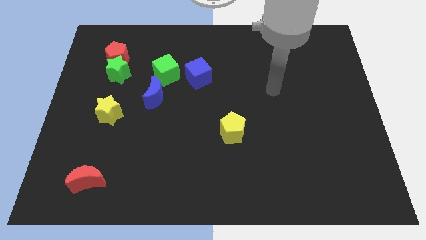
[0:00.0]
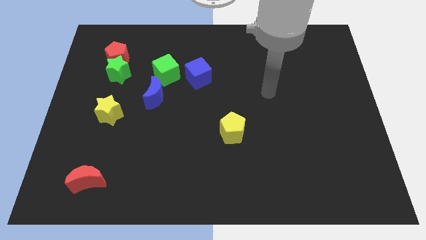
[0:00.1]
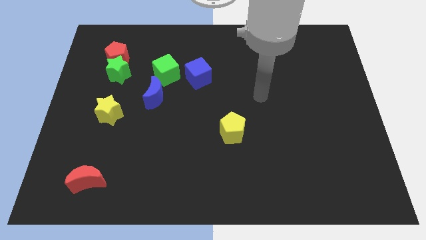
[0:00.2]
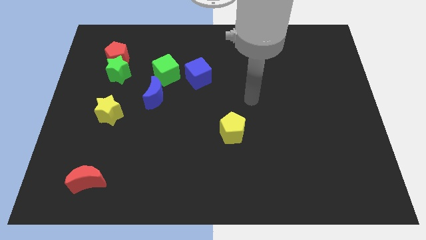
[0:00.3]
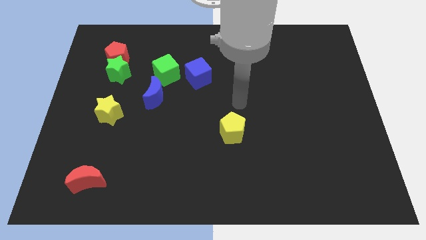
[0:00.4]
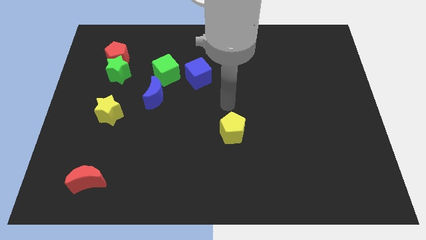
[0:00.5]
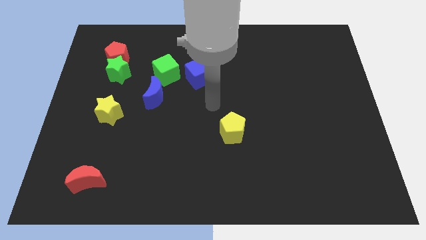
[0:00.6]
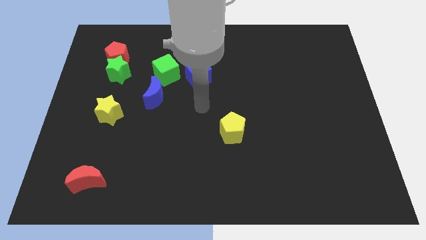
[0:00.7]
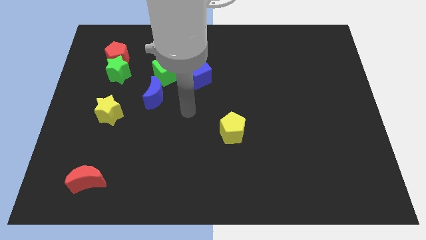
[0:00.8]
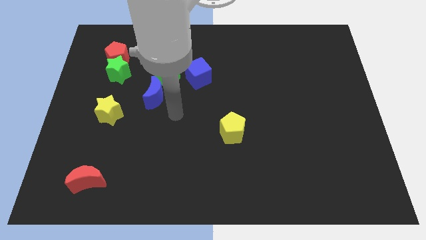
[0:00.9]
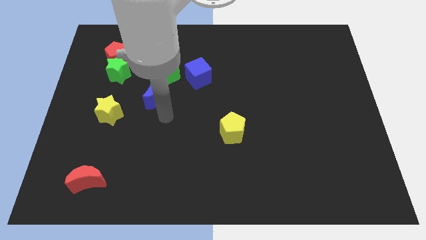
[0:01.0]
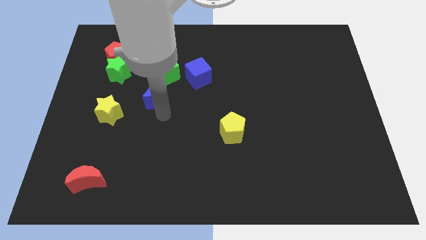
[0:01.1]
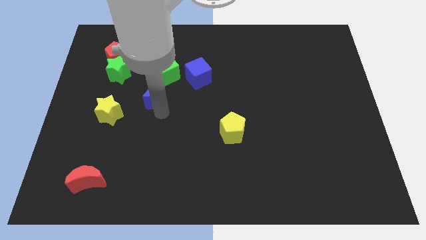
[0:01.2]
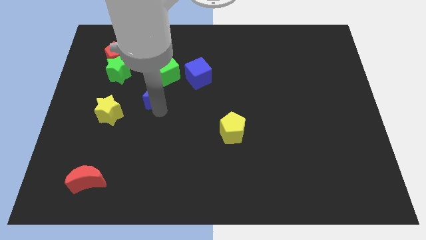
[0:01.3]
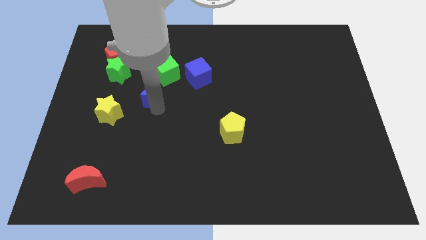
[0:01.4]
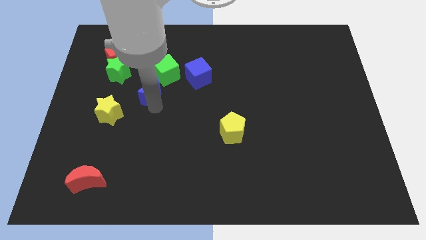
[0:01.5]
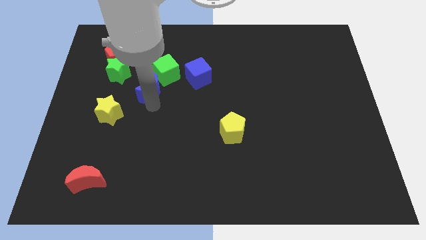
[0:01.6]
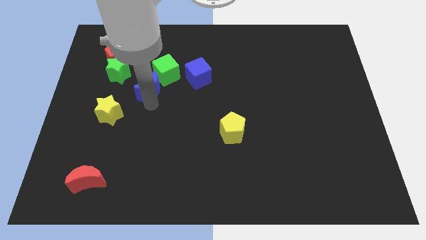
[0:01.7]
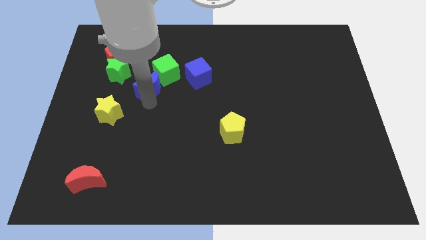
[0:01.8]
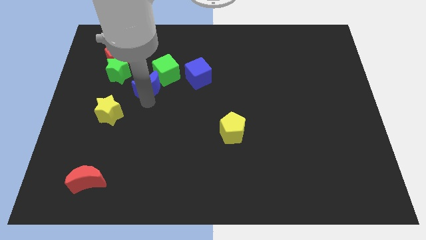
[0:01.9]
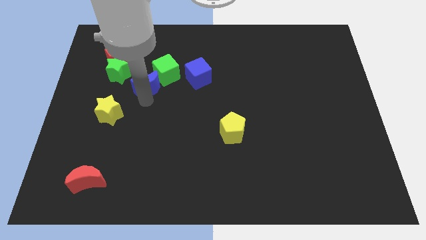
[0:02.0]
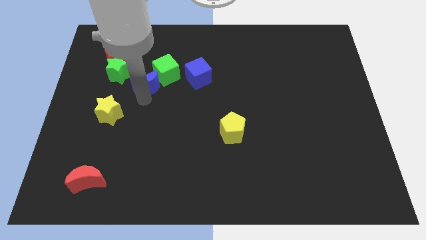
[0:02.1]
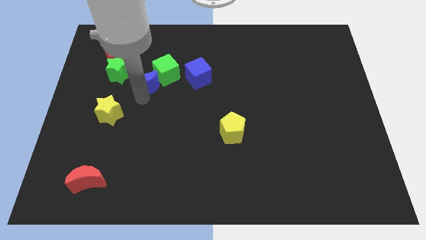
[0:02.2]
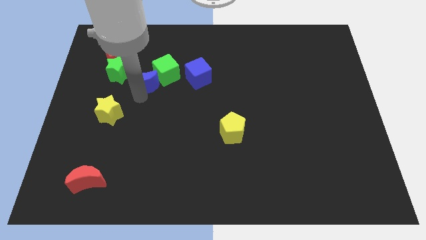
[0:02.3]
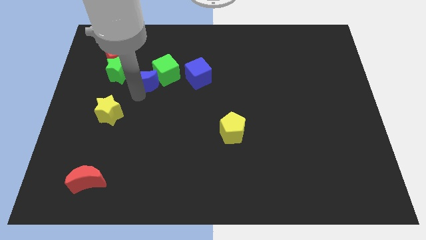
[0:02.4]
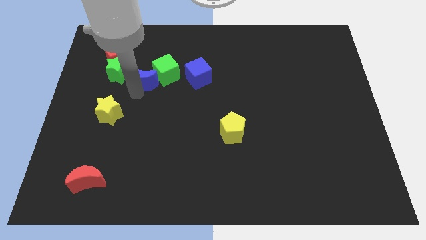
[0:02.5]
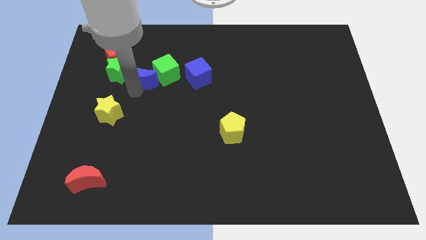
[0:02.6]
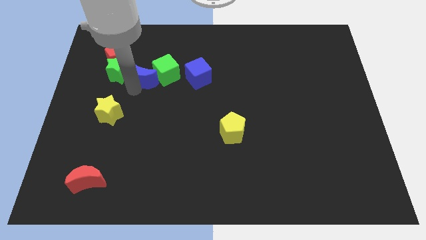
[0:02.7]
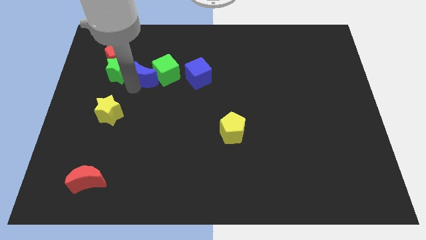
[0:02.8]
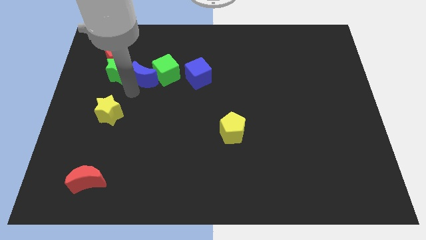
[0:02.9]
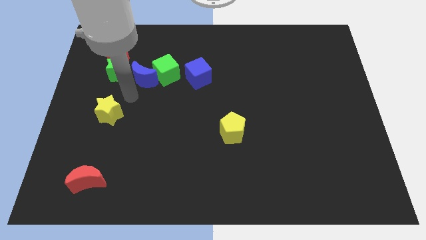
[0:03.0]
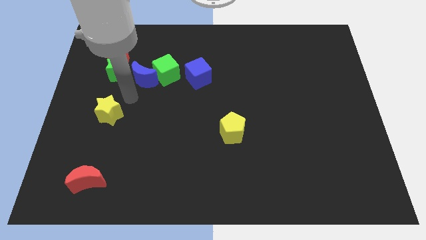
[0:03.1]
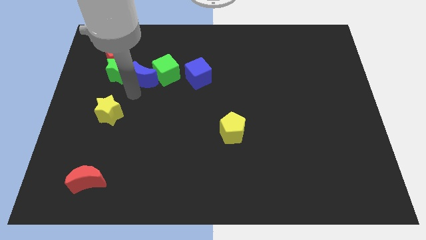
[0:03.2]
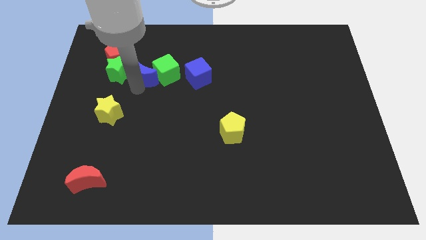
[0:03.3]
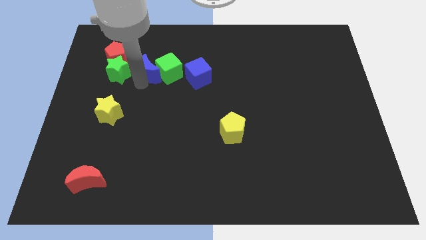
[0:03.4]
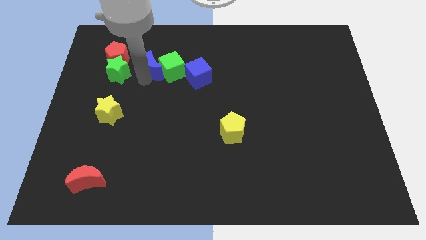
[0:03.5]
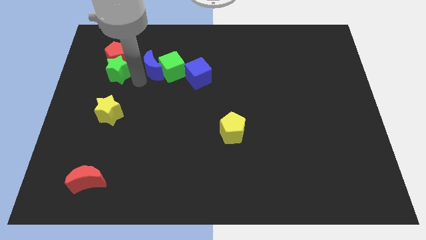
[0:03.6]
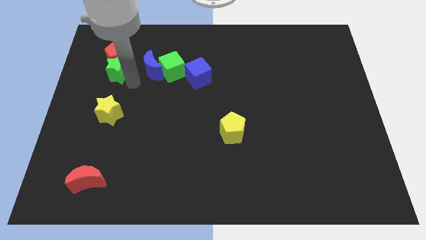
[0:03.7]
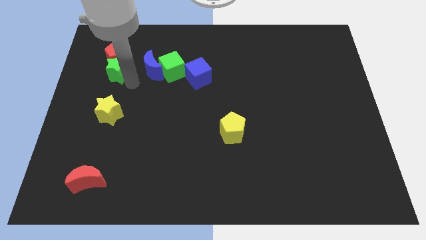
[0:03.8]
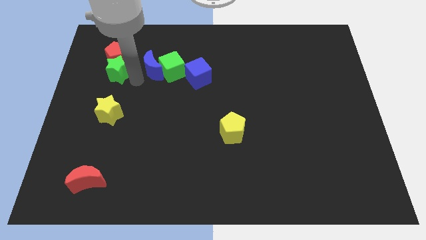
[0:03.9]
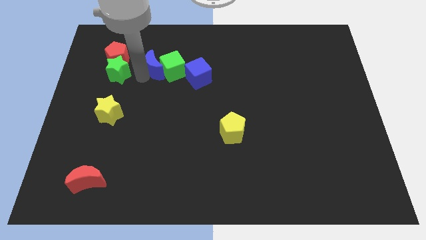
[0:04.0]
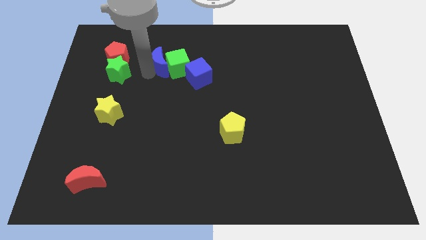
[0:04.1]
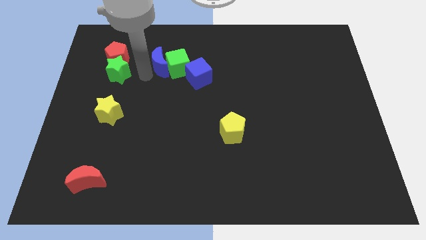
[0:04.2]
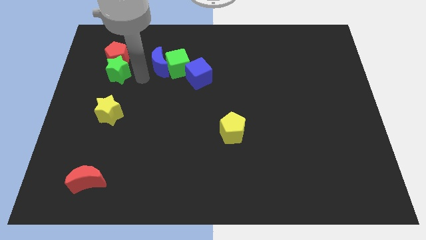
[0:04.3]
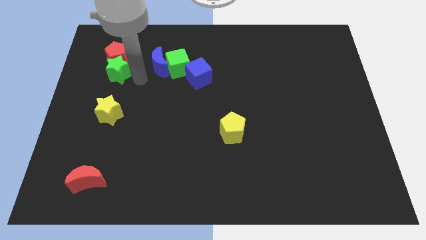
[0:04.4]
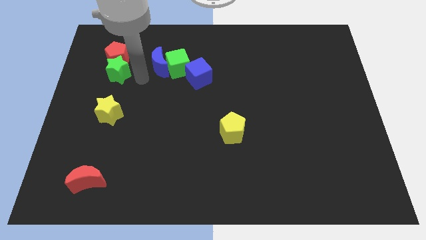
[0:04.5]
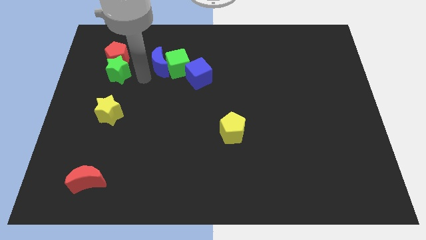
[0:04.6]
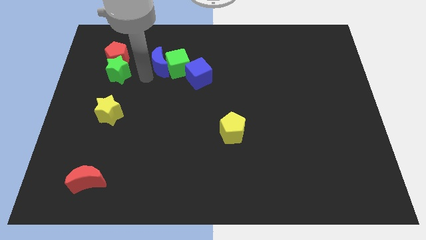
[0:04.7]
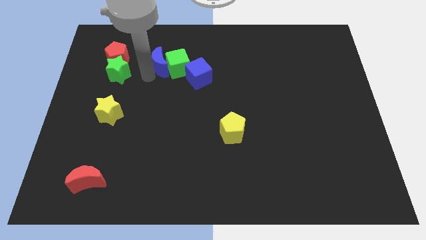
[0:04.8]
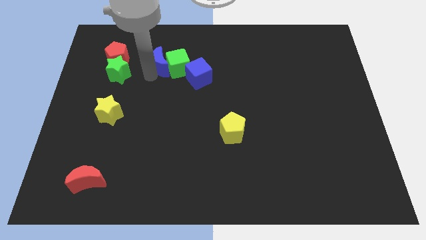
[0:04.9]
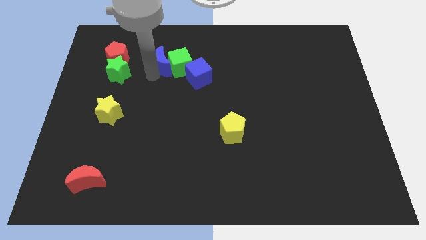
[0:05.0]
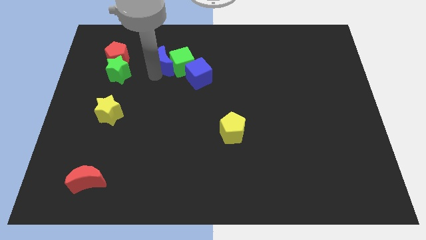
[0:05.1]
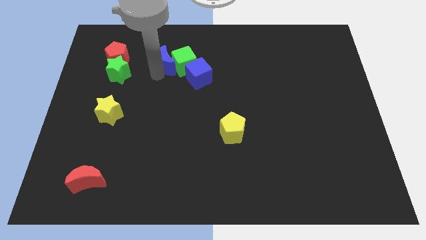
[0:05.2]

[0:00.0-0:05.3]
move the blue moon up and then to the right somewhat

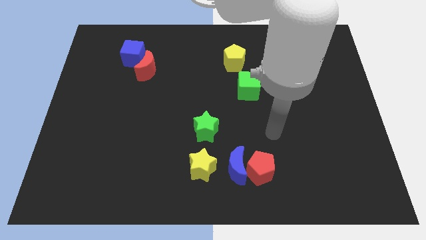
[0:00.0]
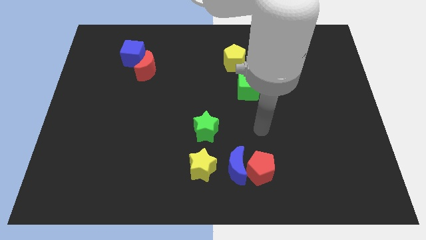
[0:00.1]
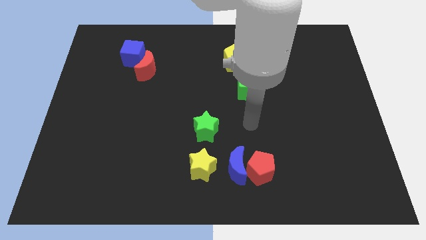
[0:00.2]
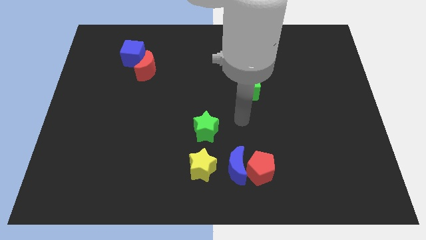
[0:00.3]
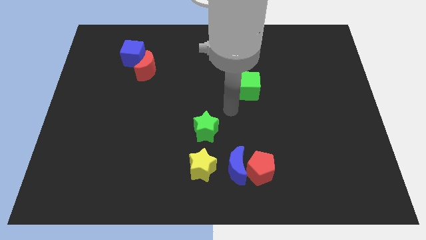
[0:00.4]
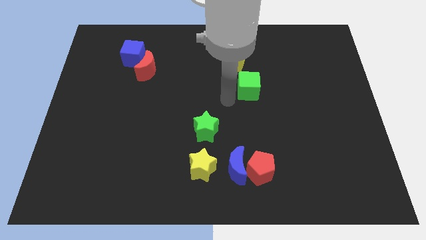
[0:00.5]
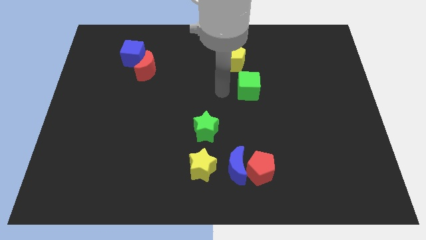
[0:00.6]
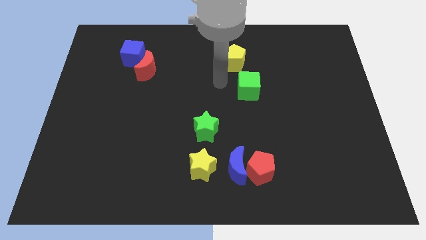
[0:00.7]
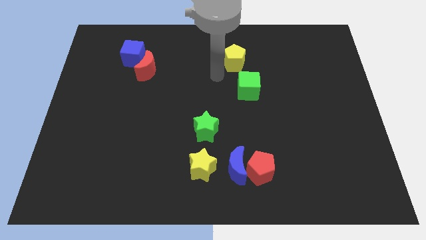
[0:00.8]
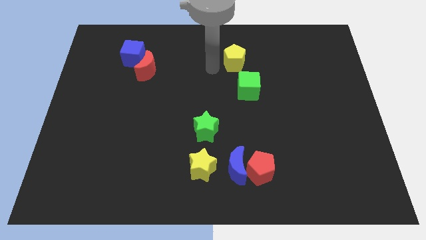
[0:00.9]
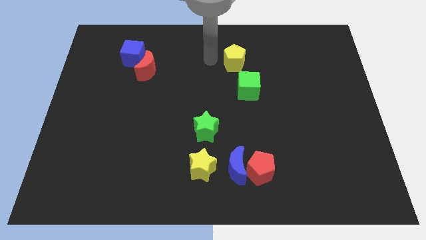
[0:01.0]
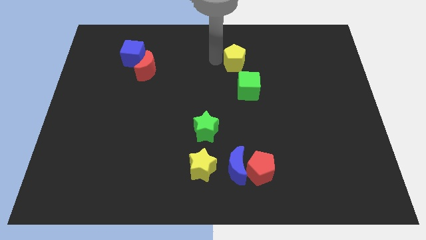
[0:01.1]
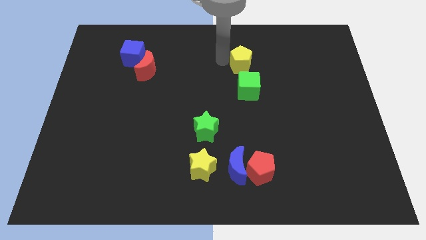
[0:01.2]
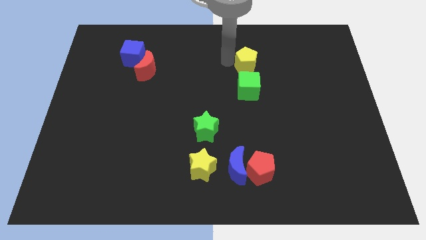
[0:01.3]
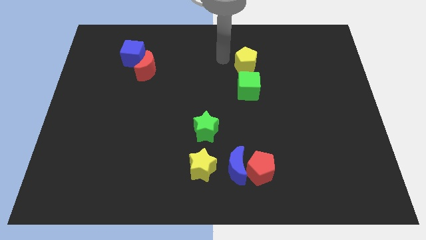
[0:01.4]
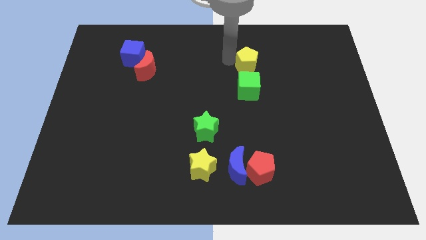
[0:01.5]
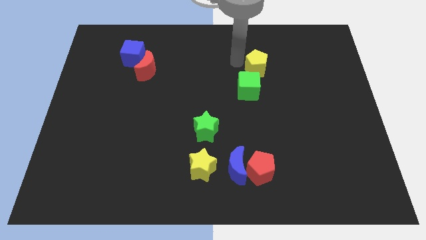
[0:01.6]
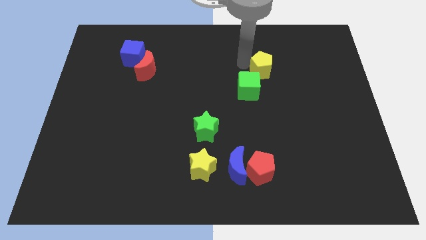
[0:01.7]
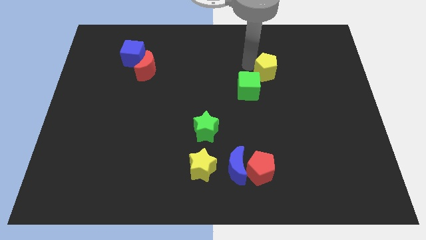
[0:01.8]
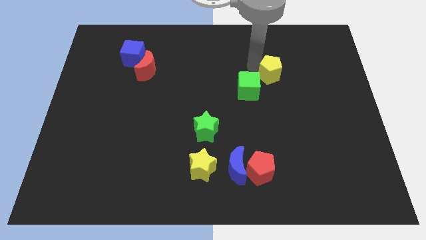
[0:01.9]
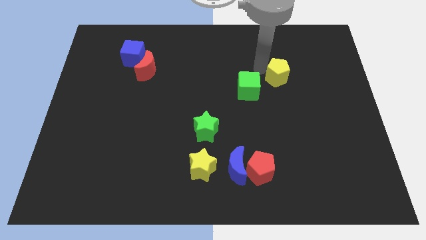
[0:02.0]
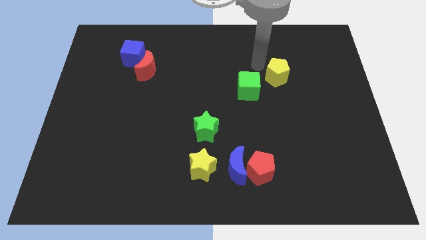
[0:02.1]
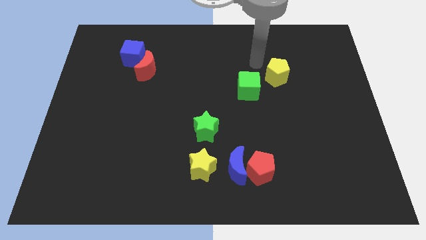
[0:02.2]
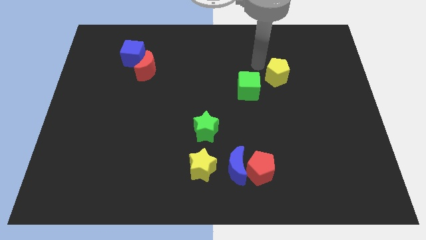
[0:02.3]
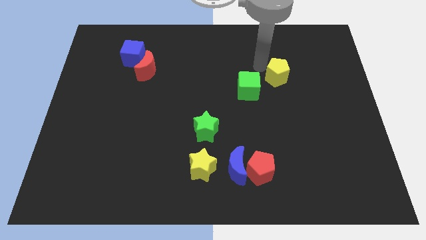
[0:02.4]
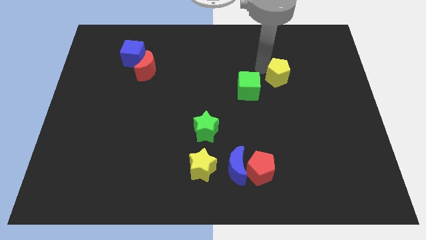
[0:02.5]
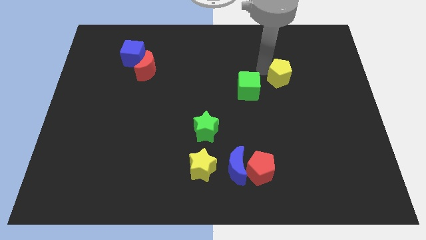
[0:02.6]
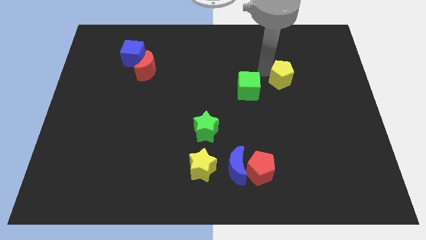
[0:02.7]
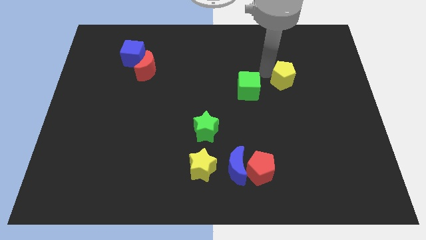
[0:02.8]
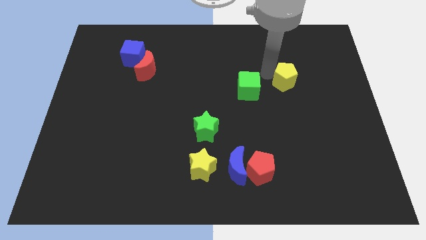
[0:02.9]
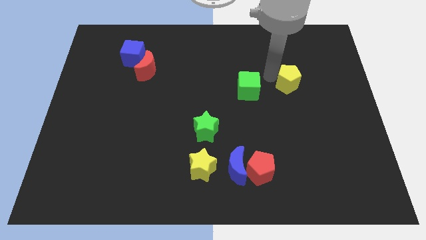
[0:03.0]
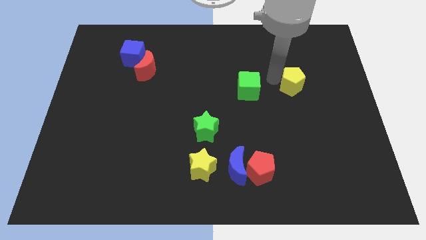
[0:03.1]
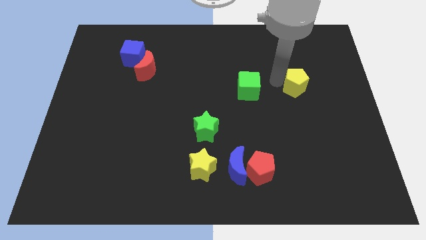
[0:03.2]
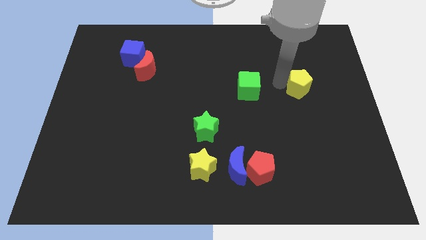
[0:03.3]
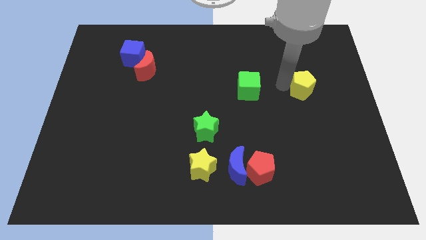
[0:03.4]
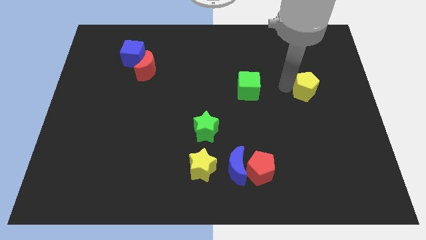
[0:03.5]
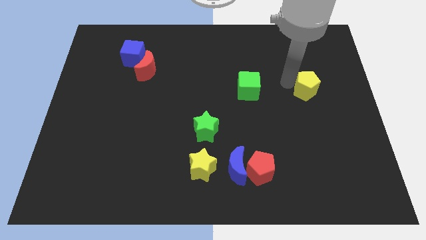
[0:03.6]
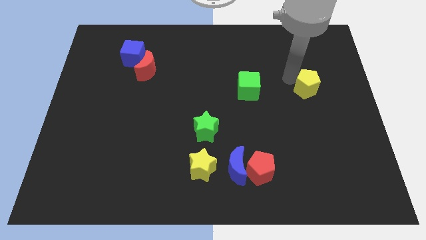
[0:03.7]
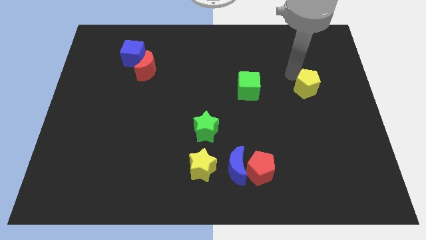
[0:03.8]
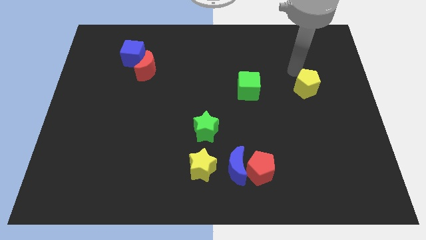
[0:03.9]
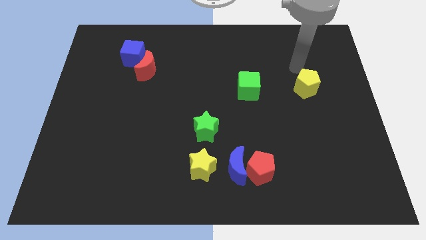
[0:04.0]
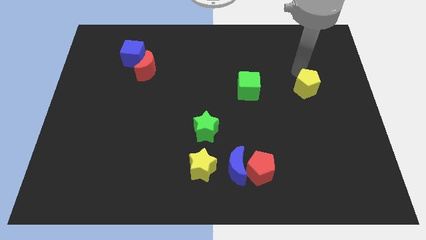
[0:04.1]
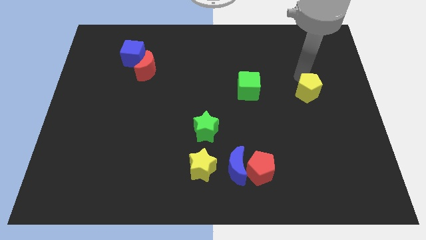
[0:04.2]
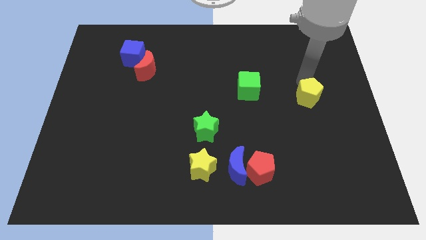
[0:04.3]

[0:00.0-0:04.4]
move the yellow pentagon downwards and right diagonally
